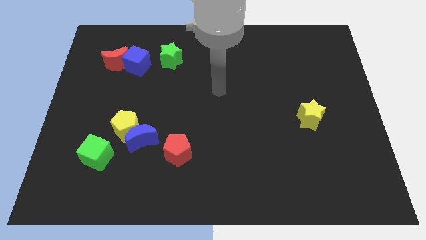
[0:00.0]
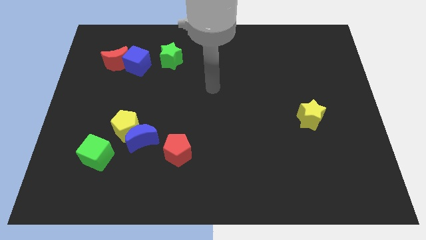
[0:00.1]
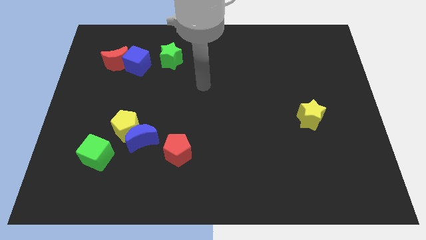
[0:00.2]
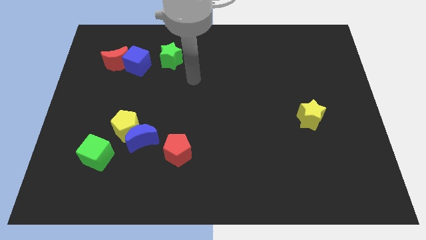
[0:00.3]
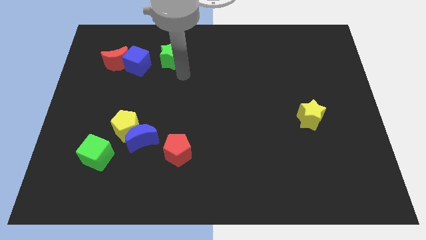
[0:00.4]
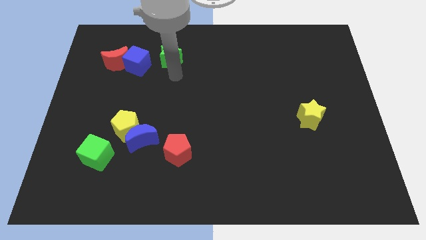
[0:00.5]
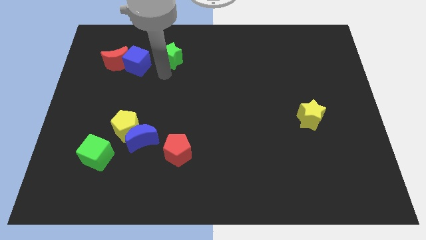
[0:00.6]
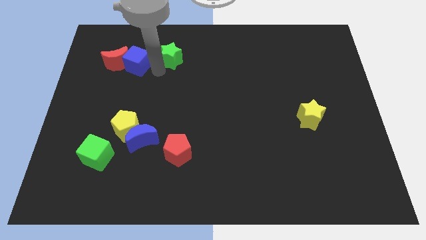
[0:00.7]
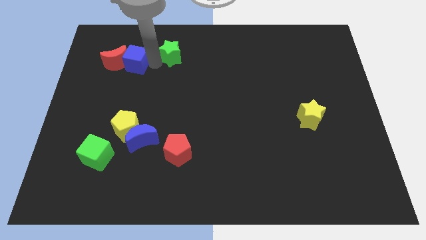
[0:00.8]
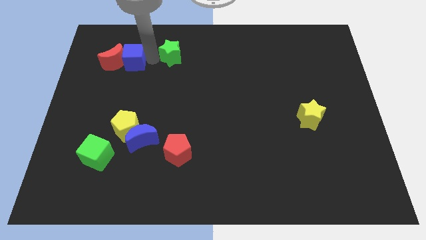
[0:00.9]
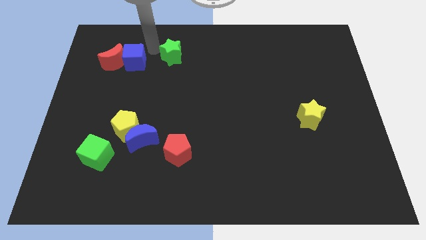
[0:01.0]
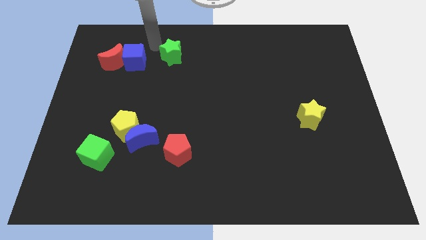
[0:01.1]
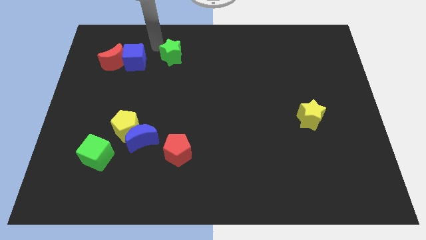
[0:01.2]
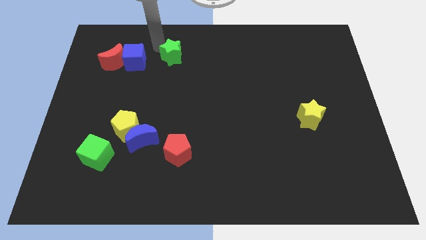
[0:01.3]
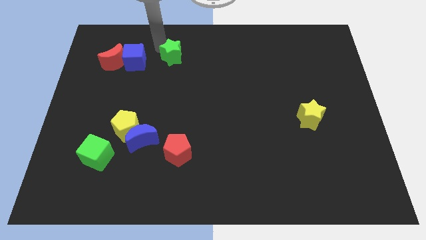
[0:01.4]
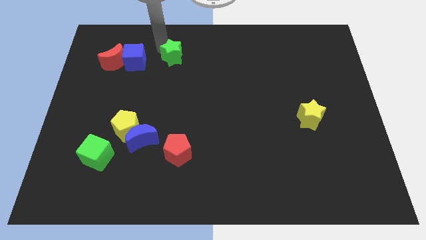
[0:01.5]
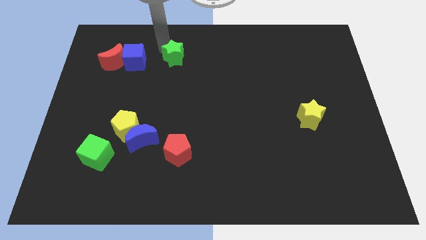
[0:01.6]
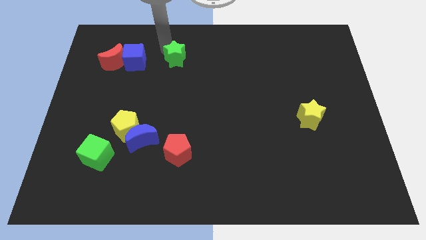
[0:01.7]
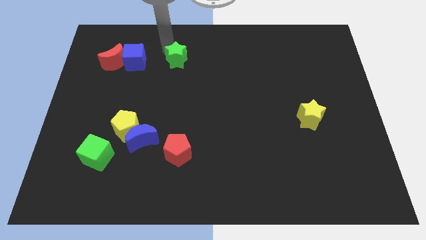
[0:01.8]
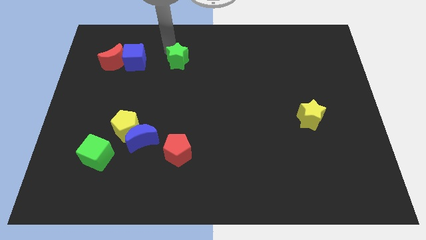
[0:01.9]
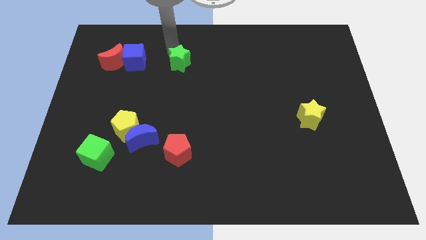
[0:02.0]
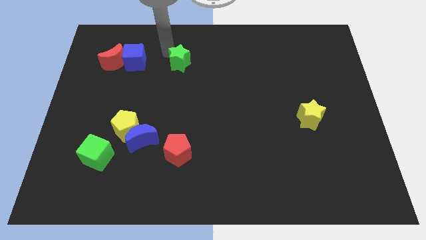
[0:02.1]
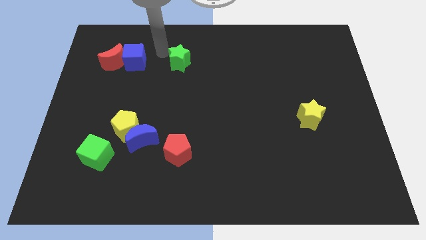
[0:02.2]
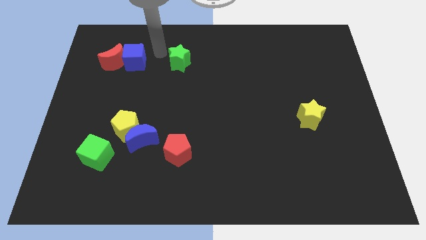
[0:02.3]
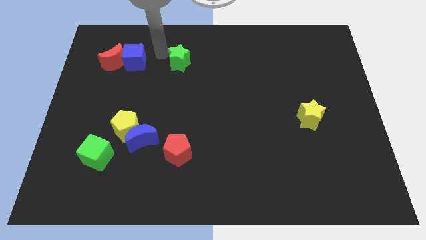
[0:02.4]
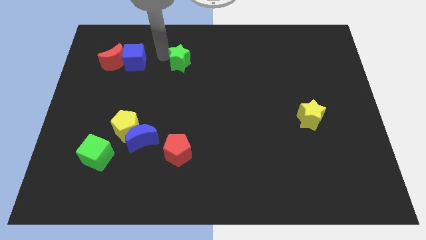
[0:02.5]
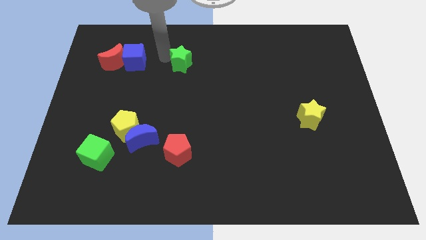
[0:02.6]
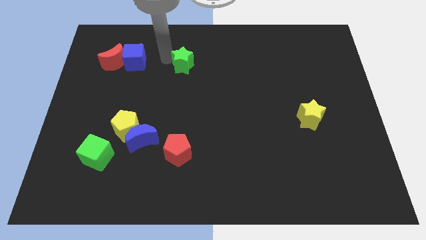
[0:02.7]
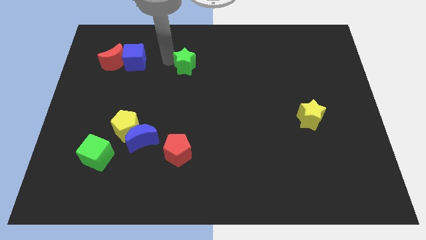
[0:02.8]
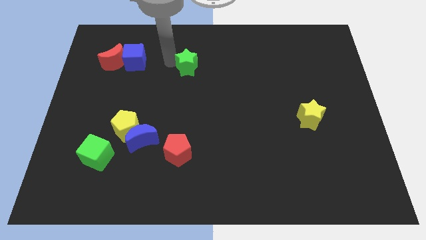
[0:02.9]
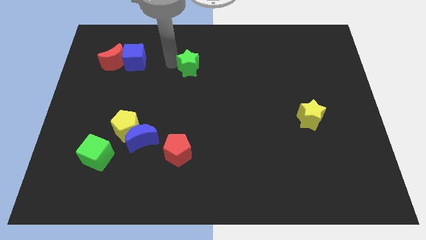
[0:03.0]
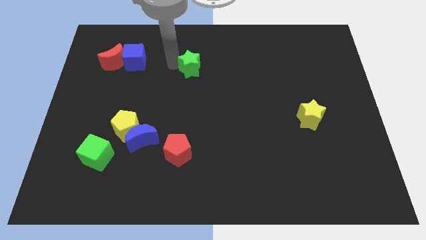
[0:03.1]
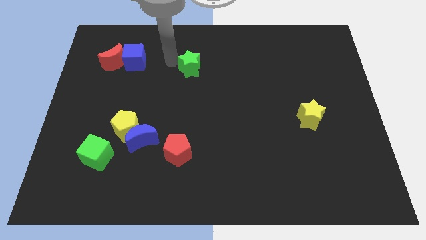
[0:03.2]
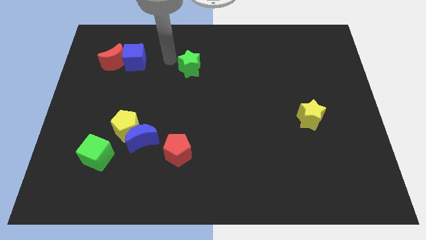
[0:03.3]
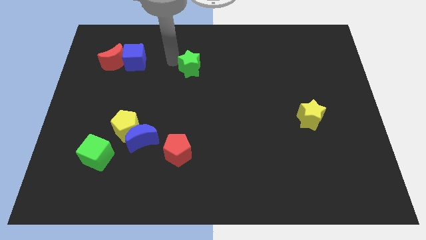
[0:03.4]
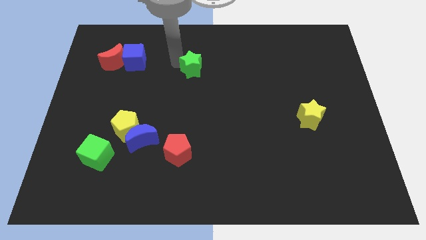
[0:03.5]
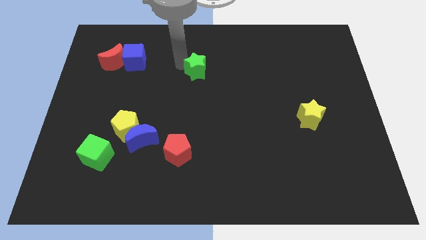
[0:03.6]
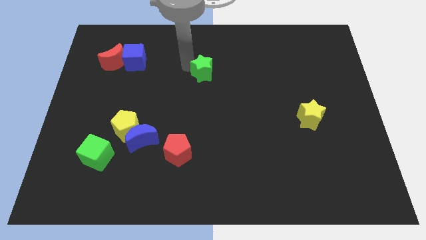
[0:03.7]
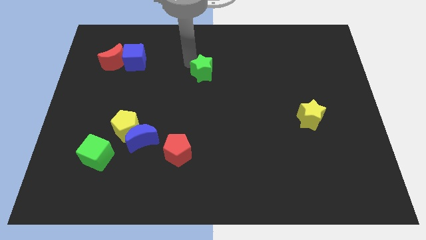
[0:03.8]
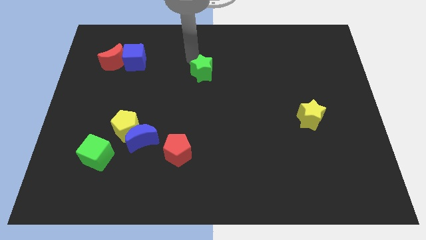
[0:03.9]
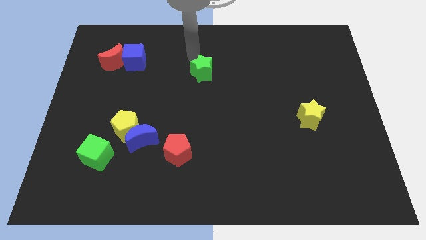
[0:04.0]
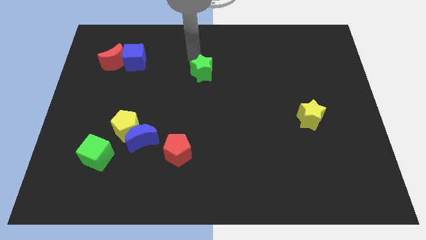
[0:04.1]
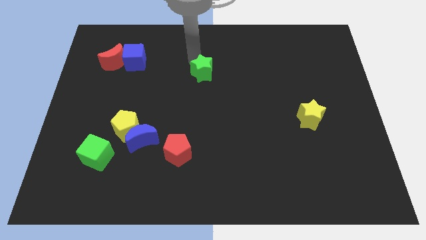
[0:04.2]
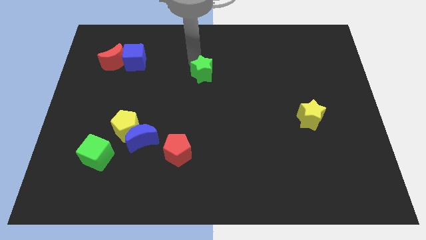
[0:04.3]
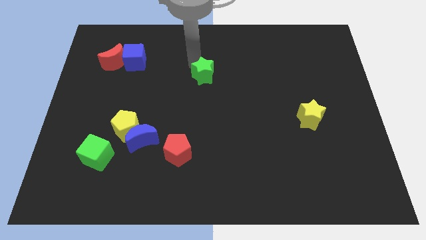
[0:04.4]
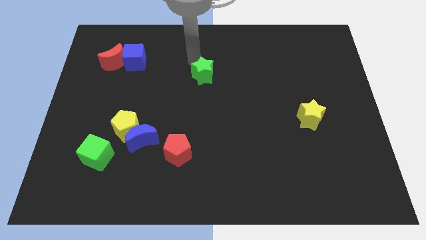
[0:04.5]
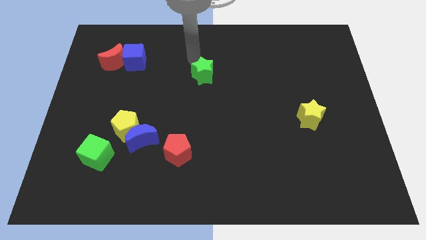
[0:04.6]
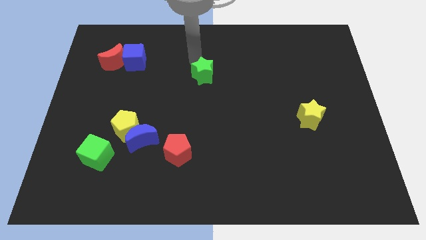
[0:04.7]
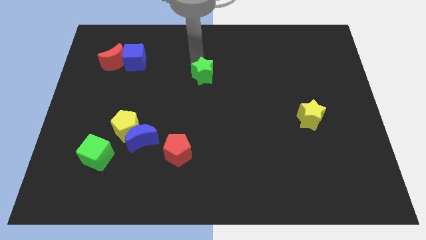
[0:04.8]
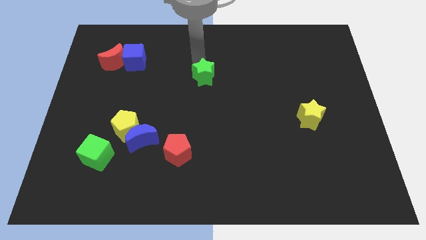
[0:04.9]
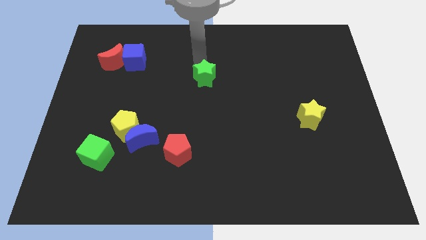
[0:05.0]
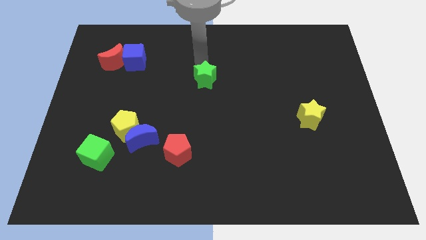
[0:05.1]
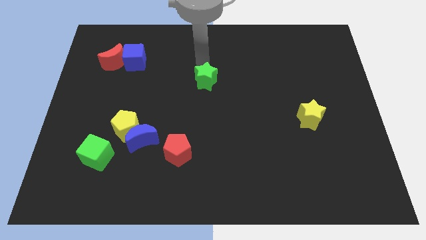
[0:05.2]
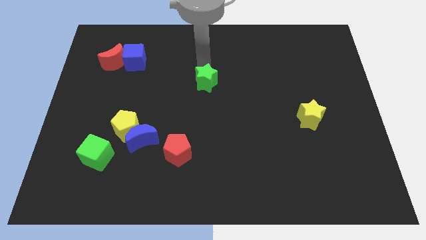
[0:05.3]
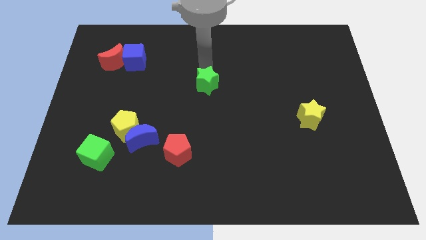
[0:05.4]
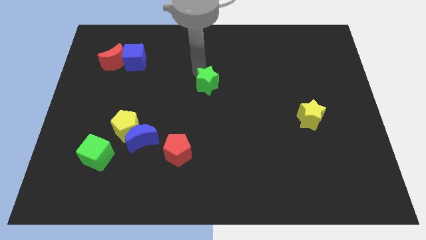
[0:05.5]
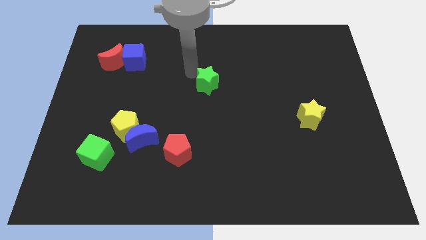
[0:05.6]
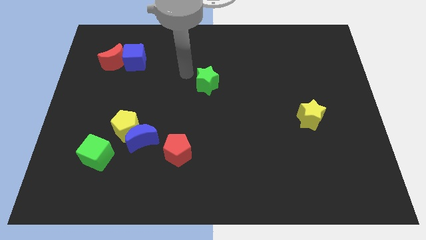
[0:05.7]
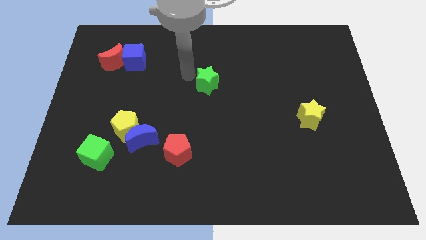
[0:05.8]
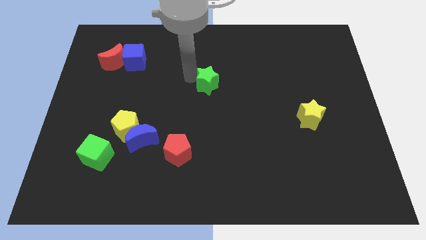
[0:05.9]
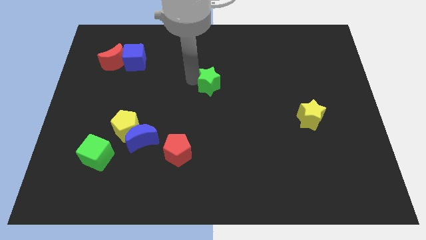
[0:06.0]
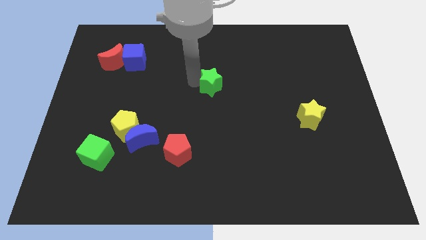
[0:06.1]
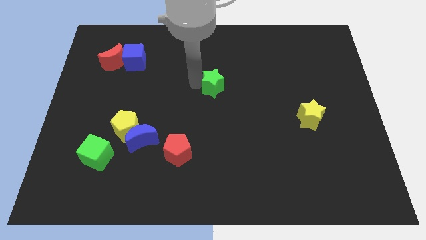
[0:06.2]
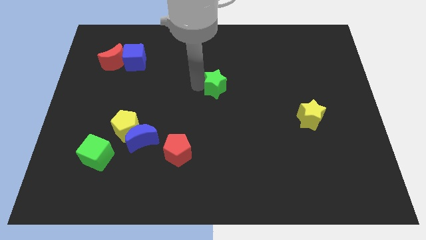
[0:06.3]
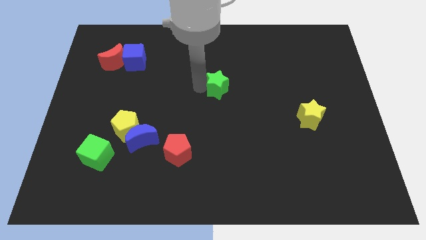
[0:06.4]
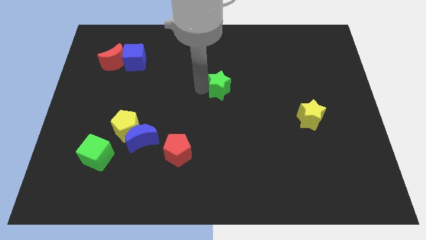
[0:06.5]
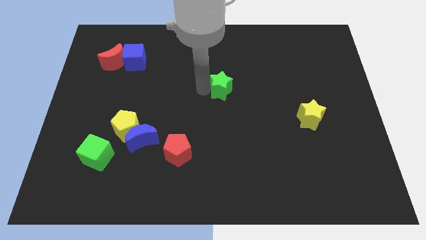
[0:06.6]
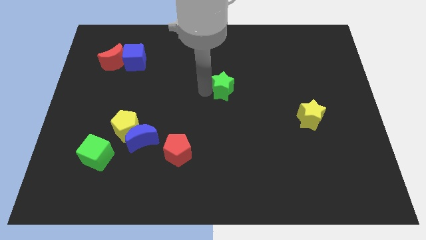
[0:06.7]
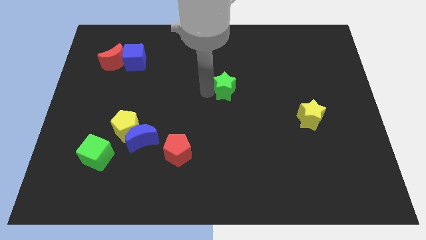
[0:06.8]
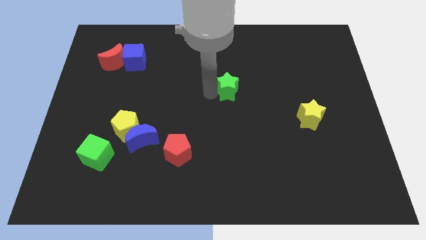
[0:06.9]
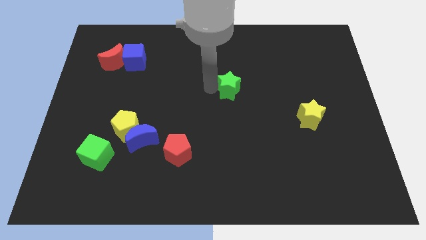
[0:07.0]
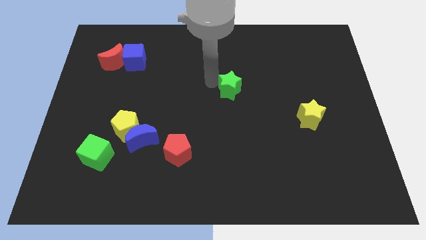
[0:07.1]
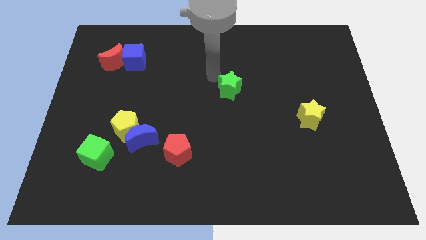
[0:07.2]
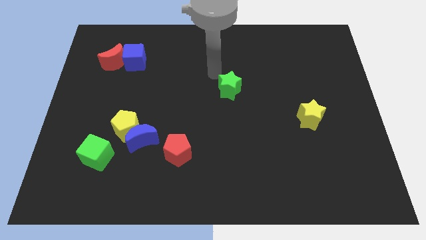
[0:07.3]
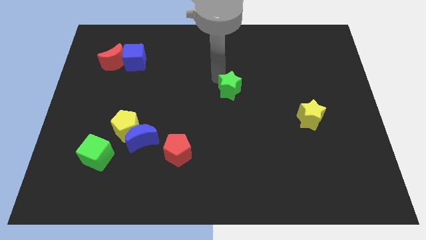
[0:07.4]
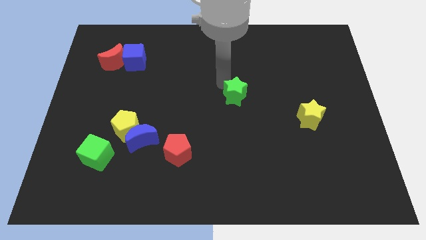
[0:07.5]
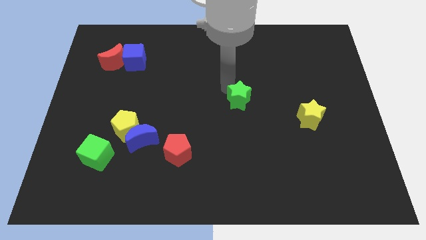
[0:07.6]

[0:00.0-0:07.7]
push the green star downwards and right diagonally

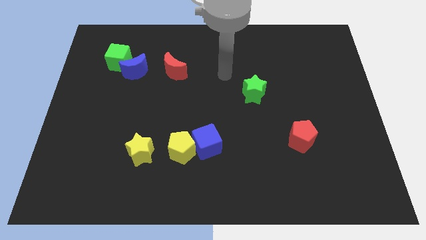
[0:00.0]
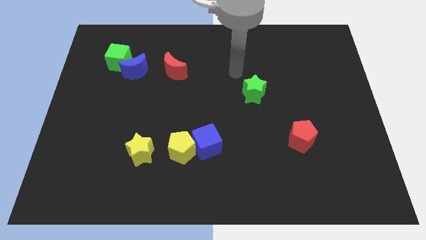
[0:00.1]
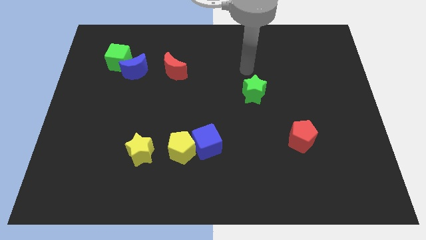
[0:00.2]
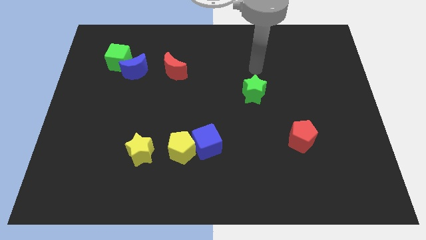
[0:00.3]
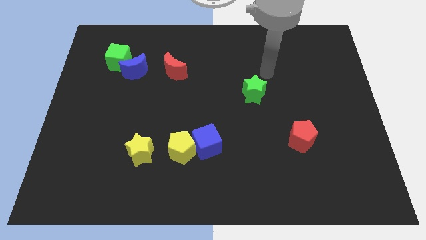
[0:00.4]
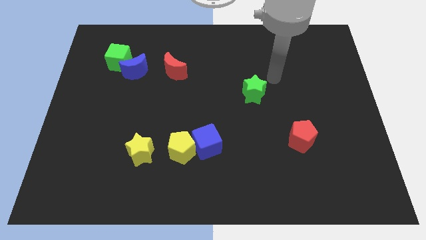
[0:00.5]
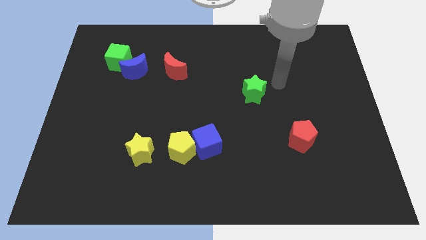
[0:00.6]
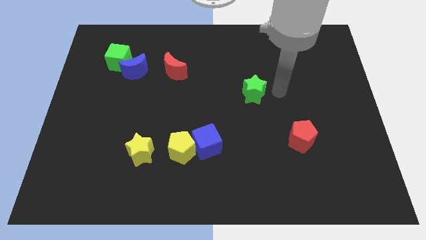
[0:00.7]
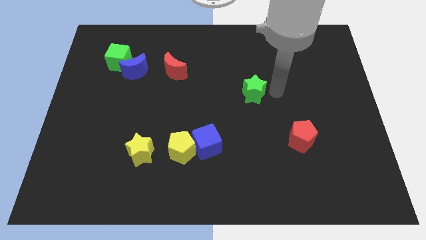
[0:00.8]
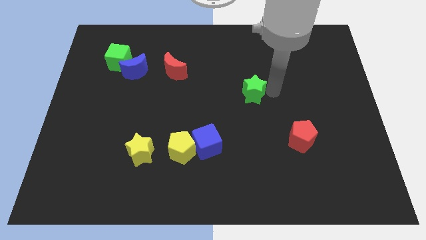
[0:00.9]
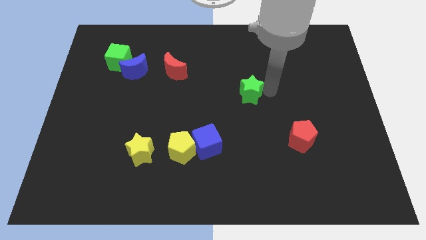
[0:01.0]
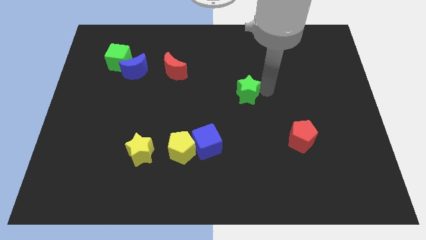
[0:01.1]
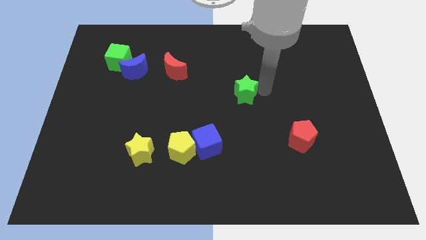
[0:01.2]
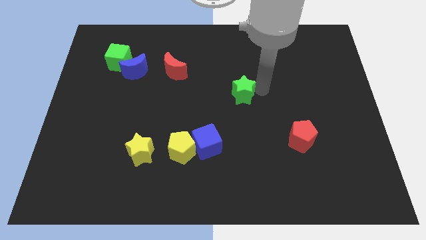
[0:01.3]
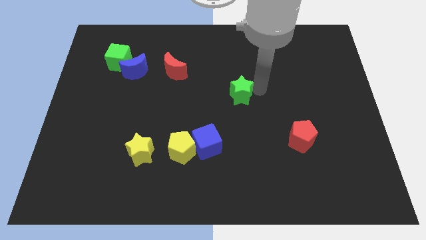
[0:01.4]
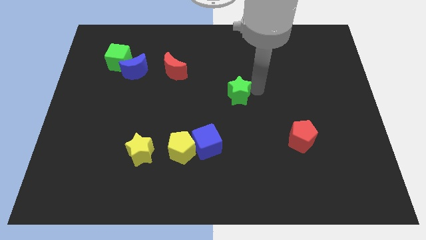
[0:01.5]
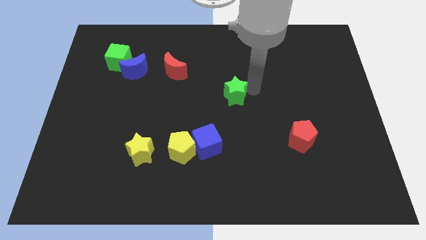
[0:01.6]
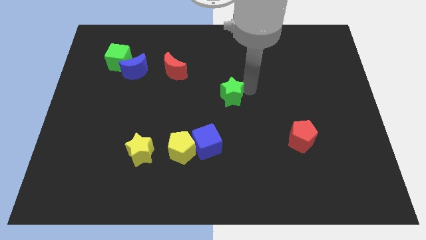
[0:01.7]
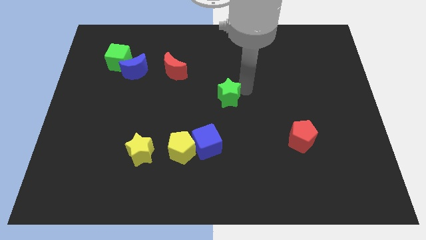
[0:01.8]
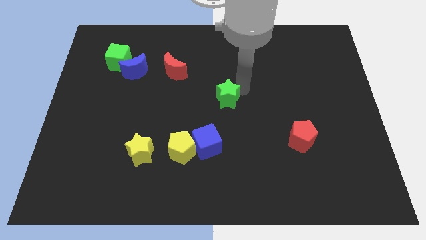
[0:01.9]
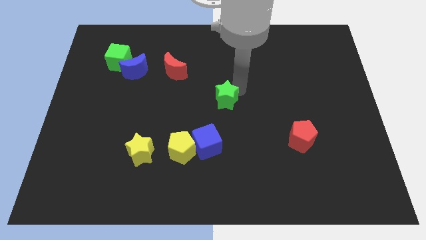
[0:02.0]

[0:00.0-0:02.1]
move the green star a bit left
